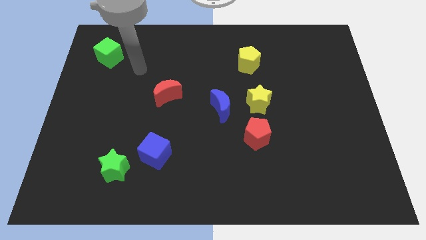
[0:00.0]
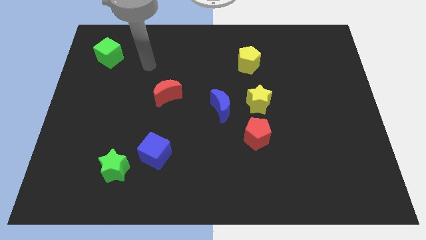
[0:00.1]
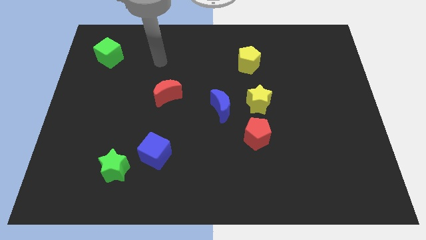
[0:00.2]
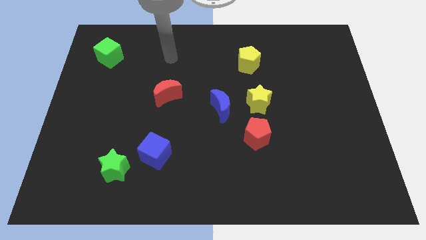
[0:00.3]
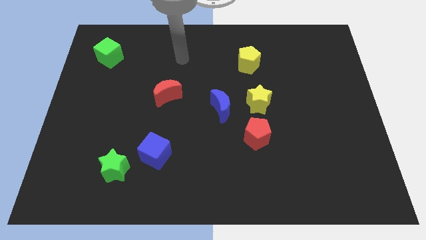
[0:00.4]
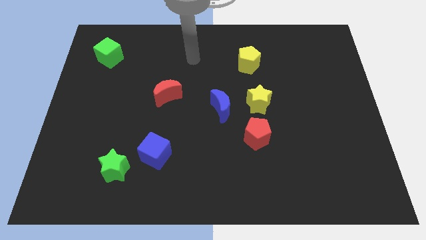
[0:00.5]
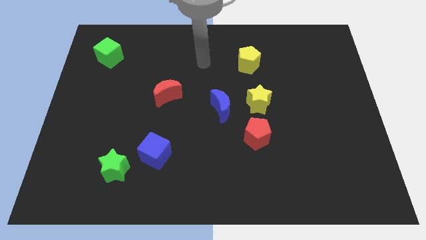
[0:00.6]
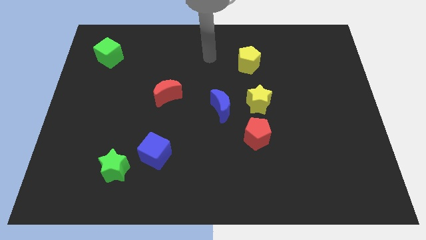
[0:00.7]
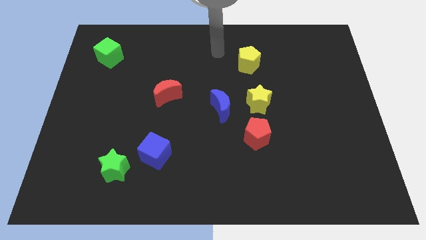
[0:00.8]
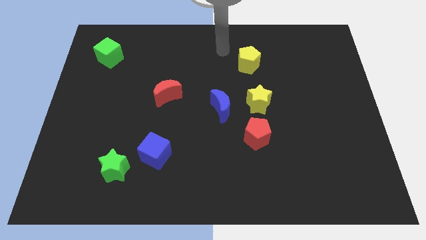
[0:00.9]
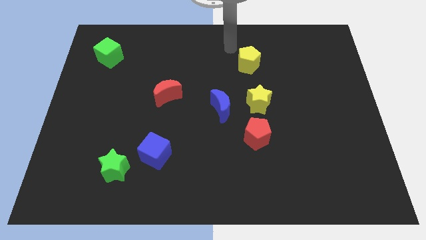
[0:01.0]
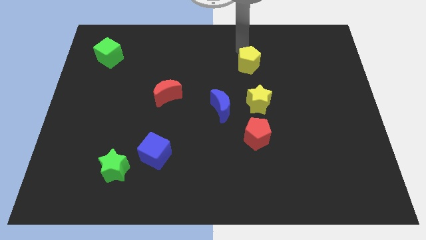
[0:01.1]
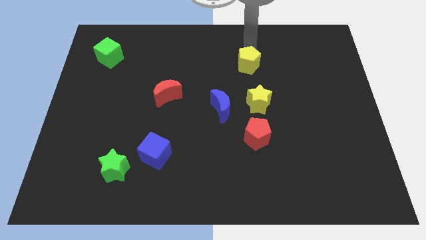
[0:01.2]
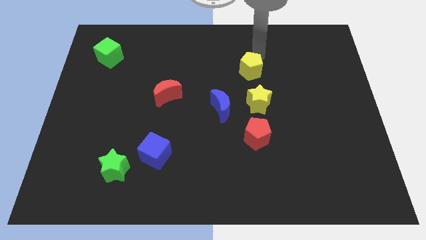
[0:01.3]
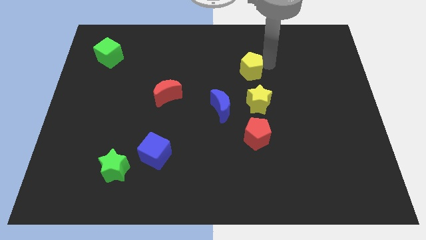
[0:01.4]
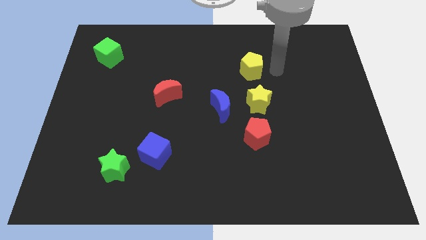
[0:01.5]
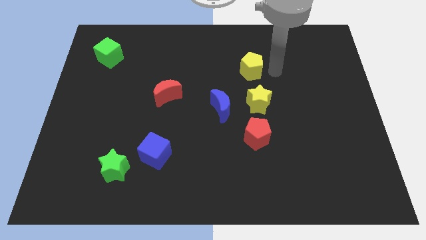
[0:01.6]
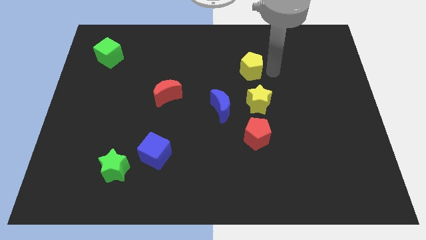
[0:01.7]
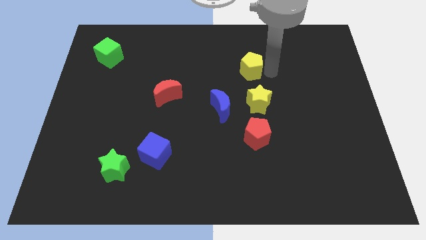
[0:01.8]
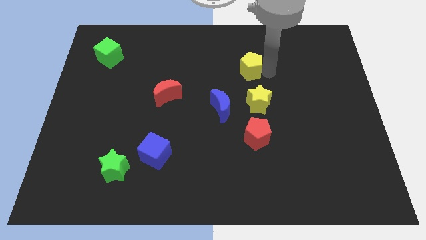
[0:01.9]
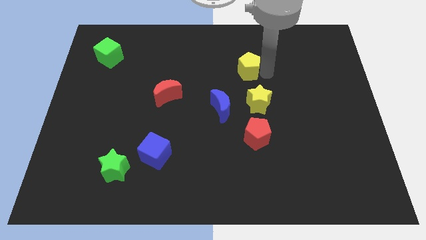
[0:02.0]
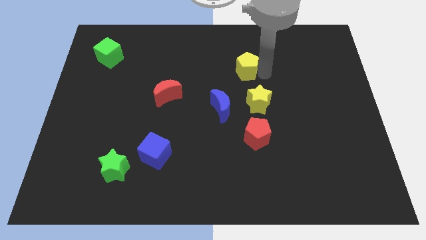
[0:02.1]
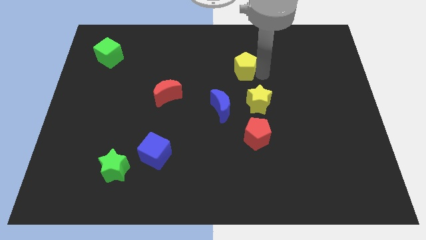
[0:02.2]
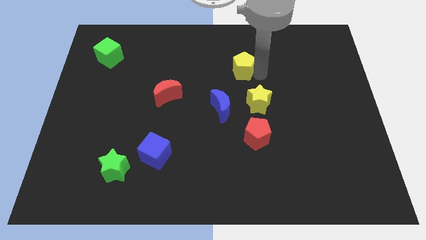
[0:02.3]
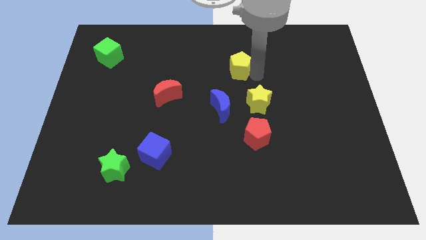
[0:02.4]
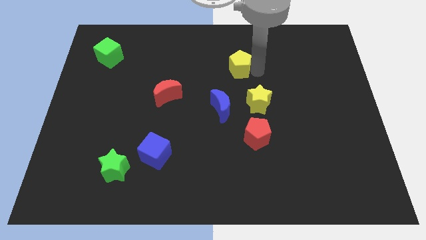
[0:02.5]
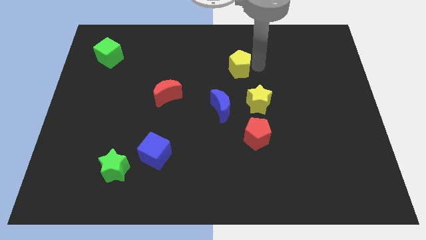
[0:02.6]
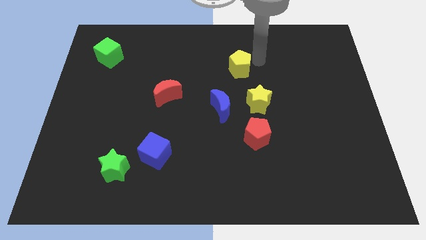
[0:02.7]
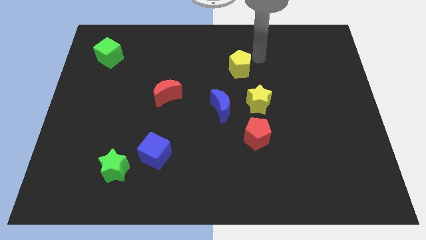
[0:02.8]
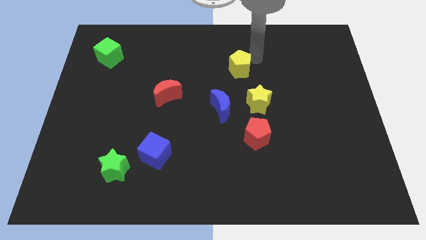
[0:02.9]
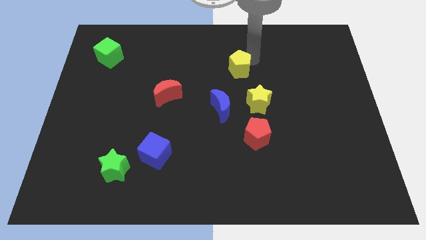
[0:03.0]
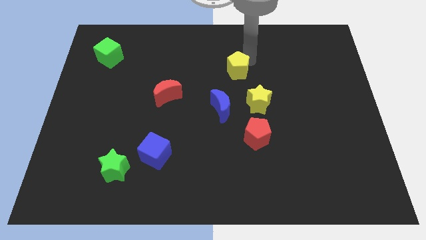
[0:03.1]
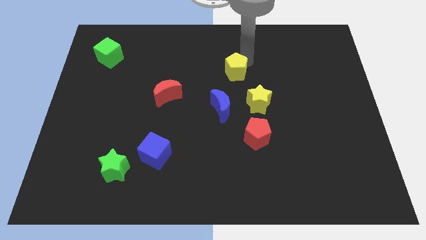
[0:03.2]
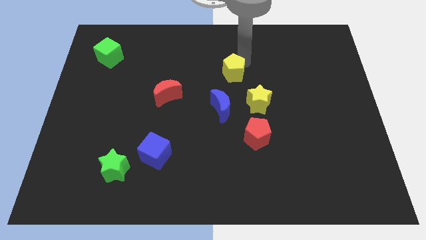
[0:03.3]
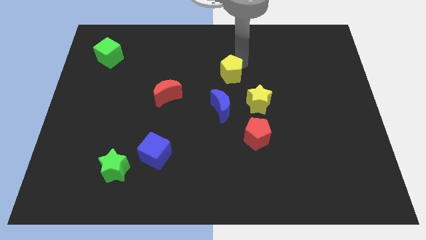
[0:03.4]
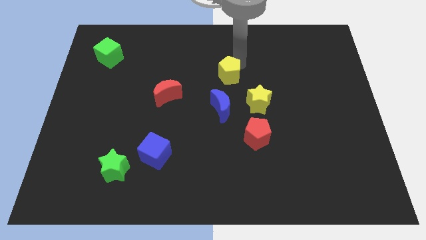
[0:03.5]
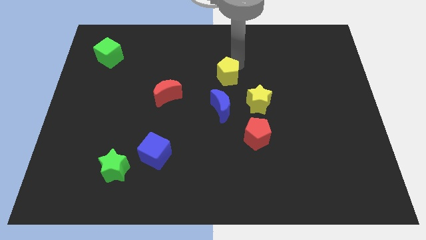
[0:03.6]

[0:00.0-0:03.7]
slightly slide the yellow pentagon downwards and then left

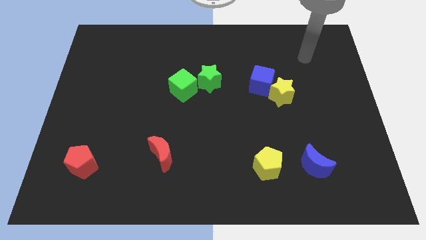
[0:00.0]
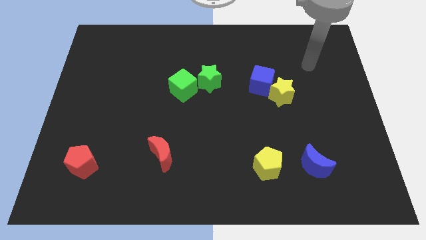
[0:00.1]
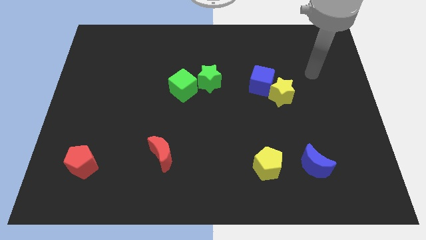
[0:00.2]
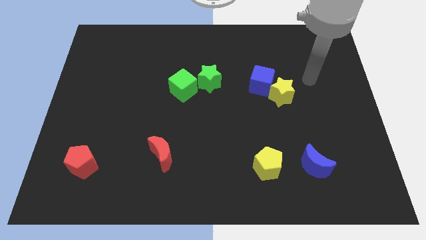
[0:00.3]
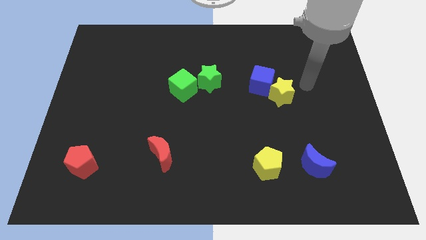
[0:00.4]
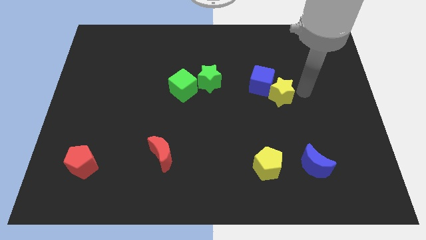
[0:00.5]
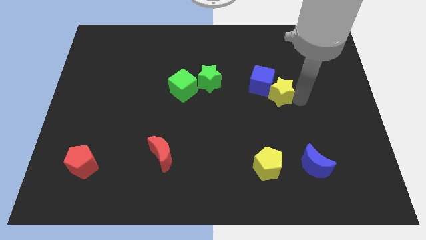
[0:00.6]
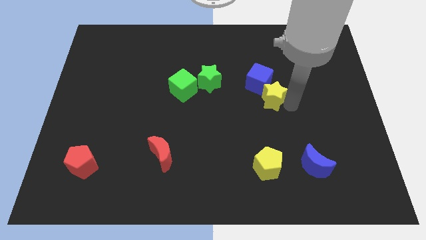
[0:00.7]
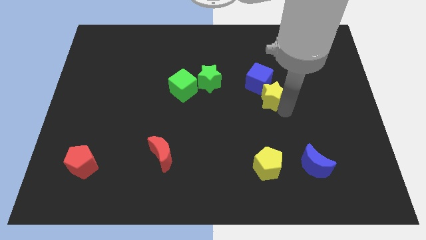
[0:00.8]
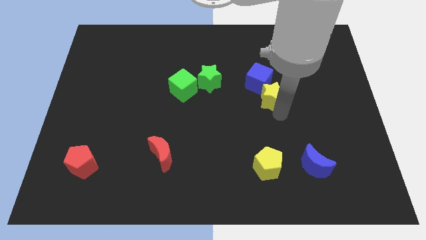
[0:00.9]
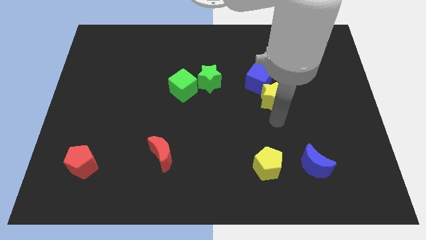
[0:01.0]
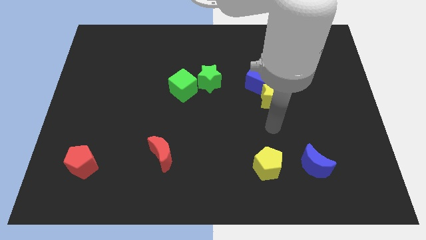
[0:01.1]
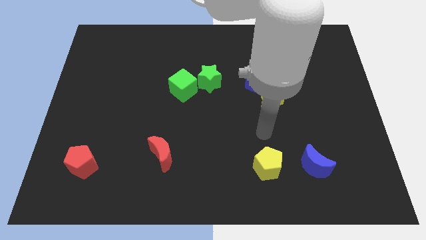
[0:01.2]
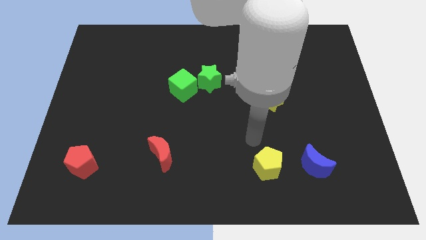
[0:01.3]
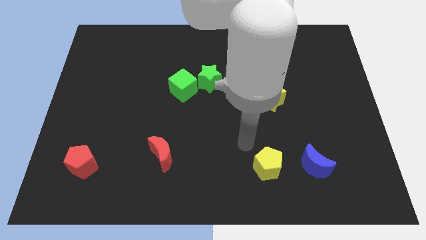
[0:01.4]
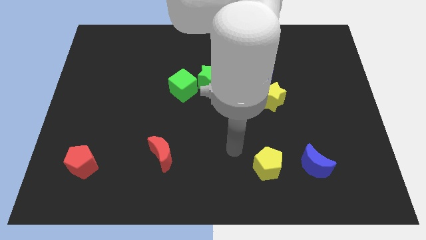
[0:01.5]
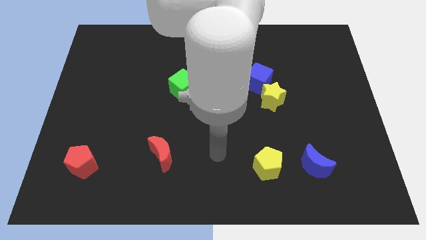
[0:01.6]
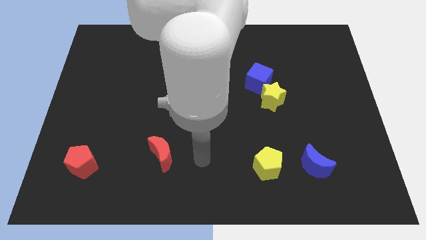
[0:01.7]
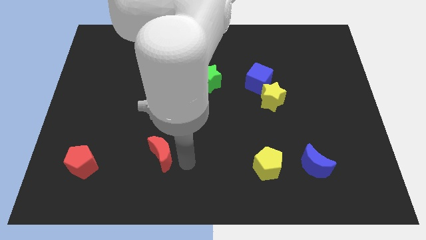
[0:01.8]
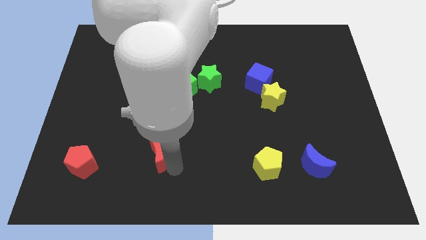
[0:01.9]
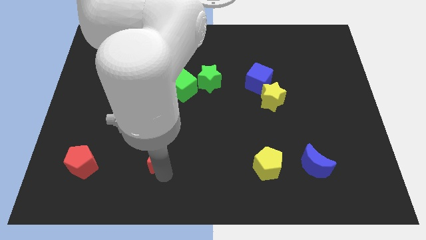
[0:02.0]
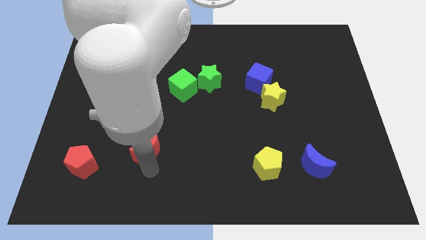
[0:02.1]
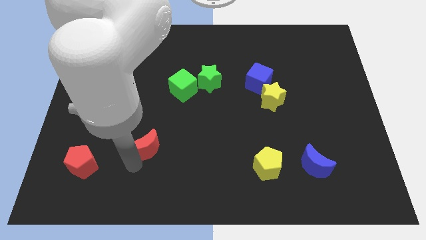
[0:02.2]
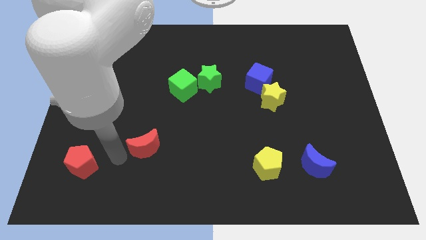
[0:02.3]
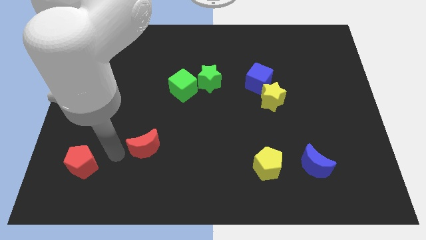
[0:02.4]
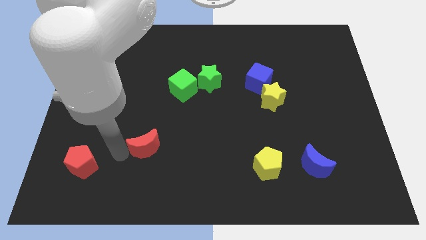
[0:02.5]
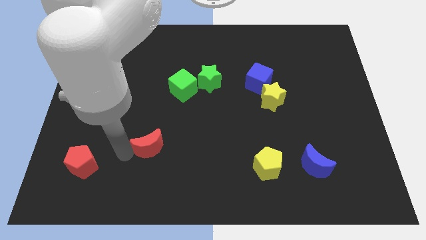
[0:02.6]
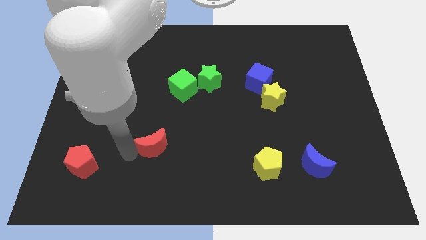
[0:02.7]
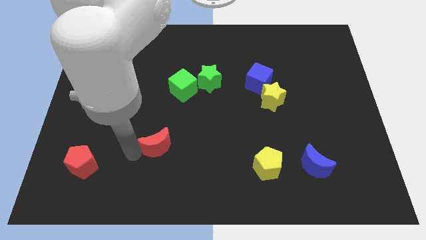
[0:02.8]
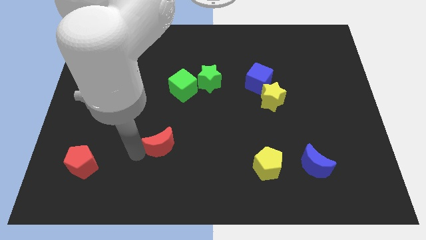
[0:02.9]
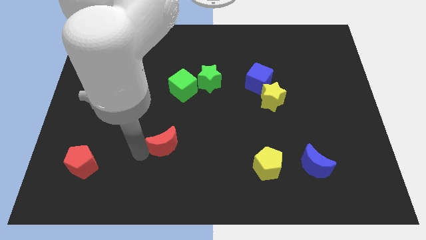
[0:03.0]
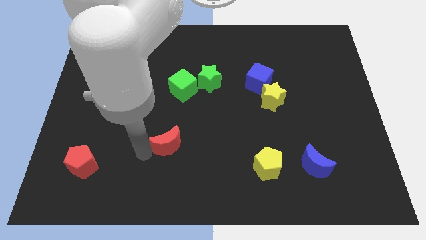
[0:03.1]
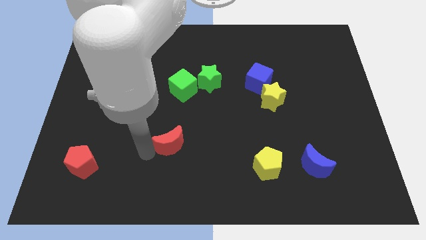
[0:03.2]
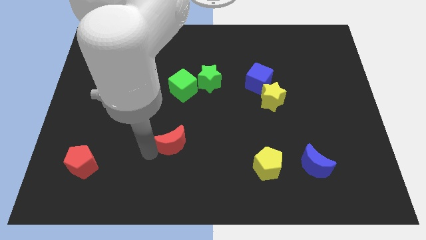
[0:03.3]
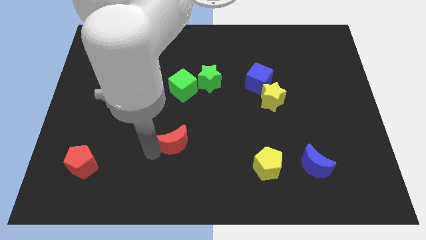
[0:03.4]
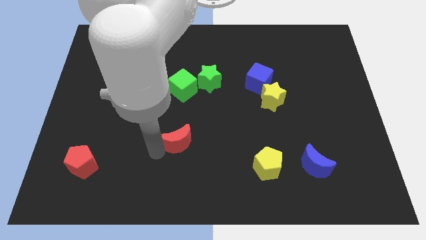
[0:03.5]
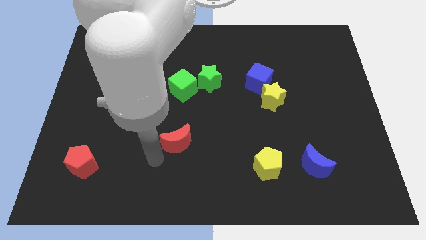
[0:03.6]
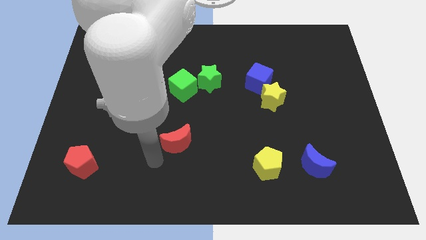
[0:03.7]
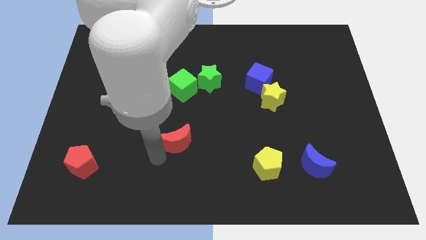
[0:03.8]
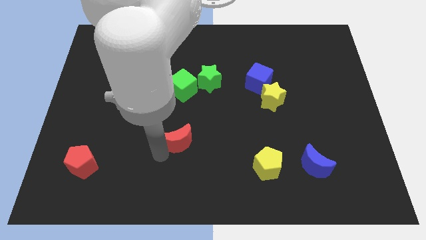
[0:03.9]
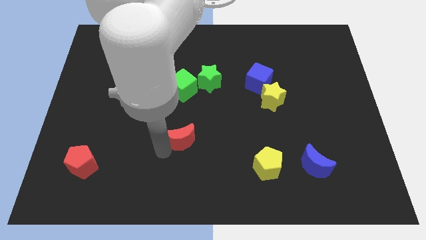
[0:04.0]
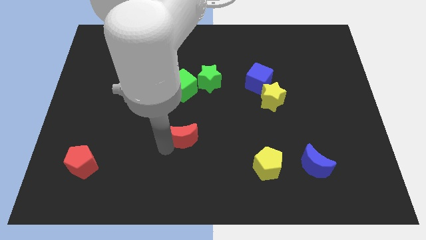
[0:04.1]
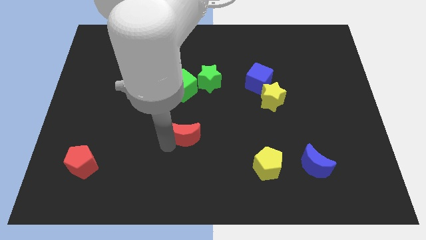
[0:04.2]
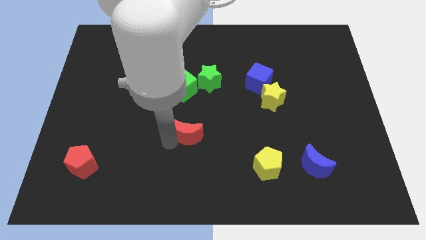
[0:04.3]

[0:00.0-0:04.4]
slightly push the red moon diagonally up and to the right

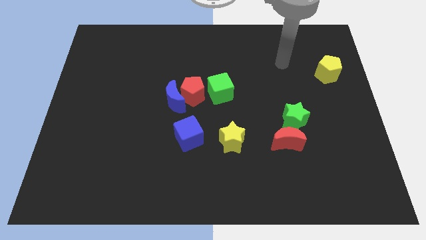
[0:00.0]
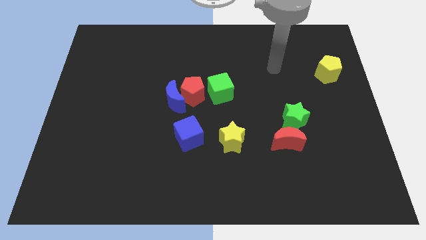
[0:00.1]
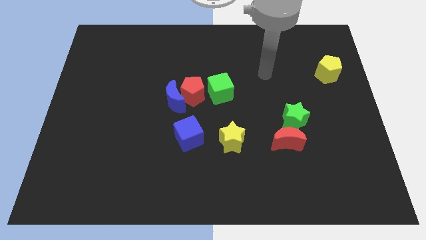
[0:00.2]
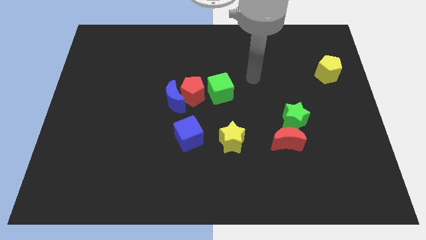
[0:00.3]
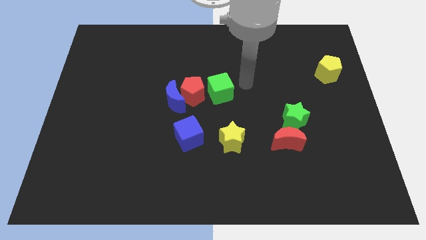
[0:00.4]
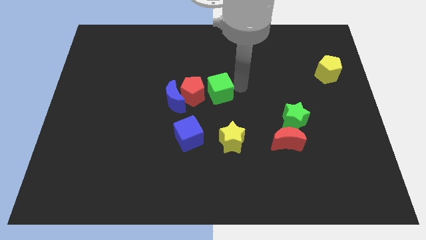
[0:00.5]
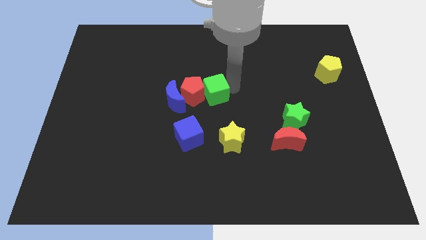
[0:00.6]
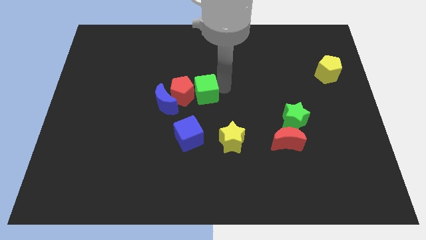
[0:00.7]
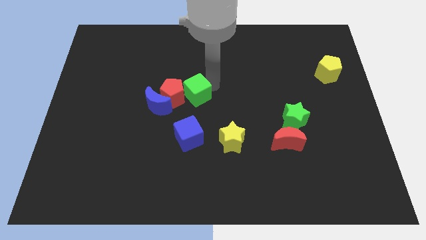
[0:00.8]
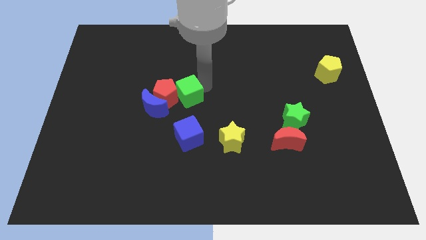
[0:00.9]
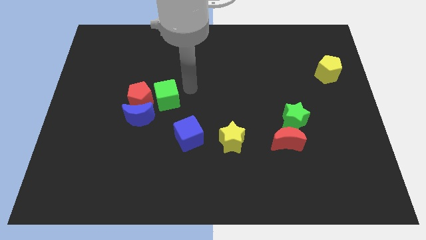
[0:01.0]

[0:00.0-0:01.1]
move the blue moon a little bit downwards and then to the left
